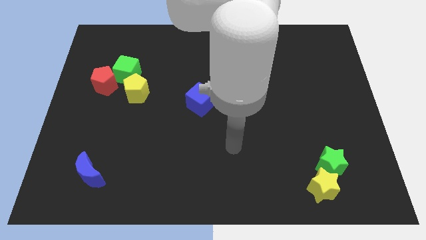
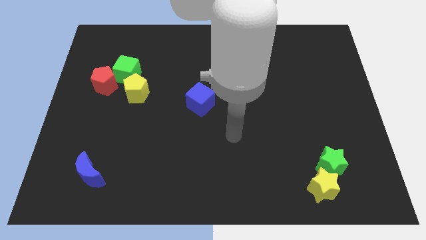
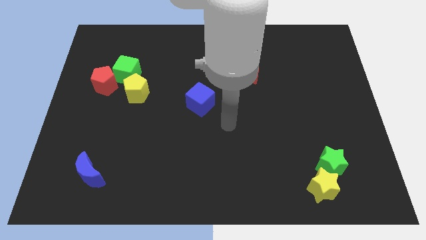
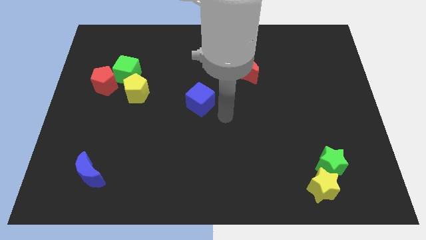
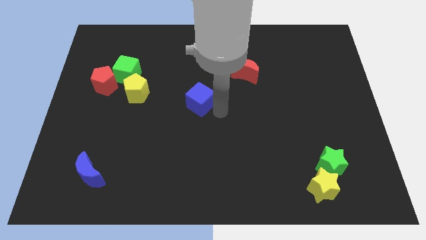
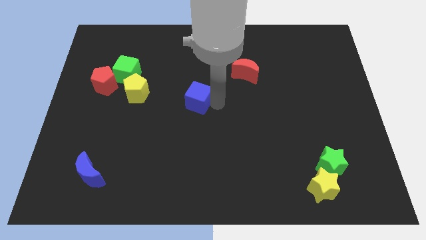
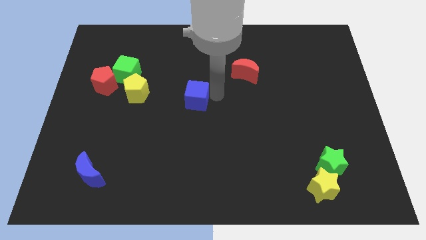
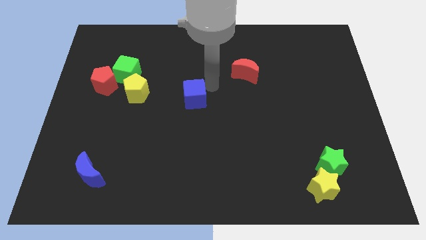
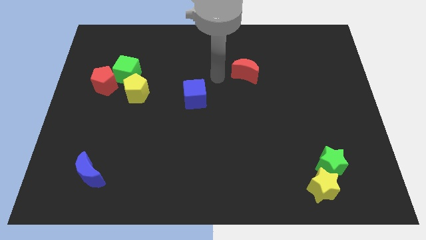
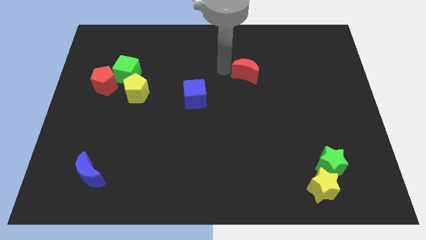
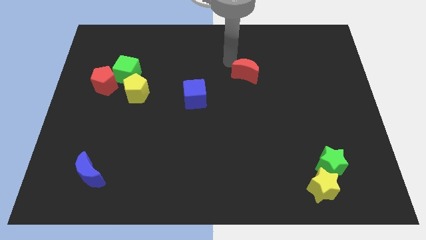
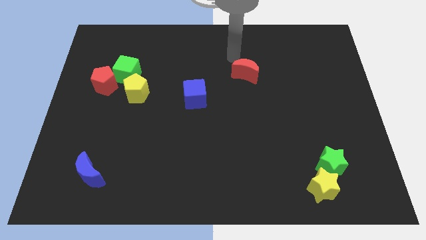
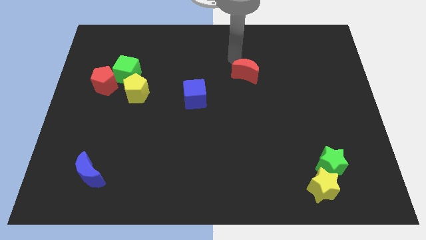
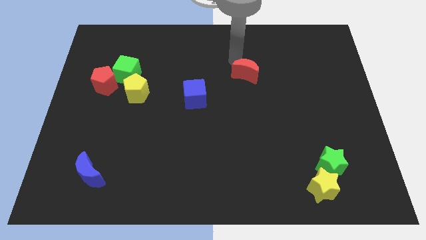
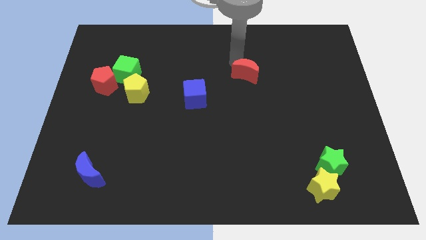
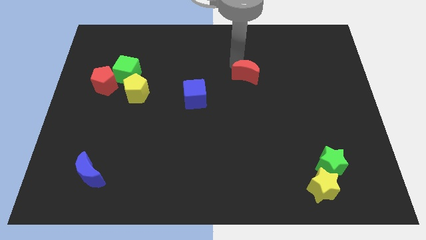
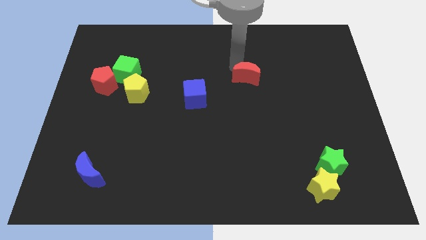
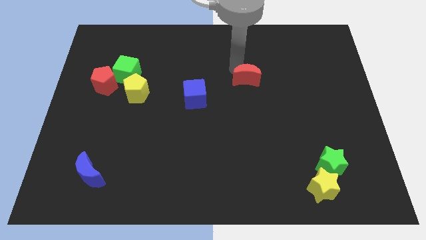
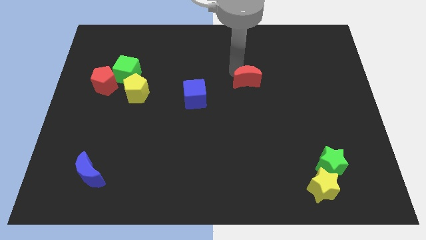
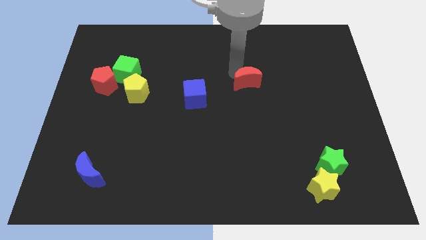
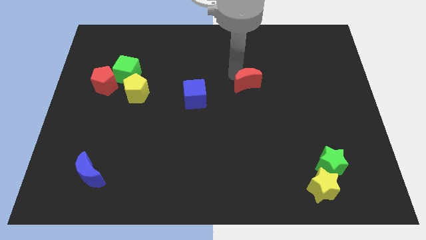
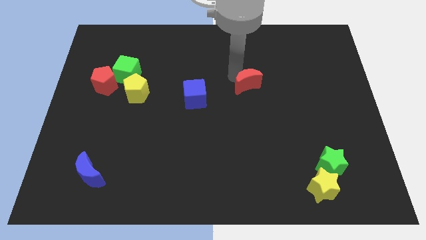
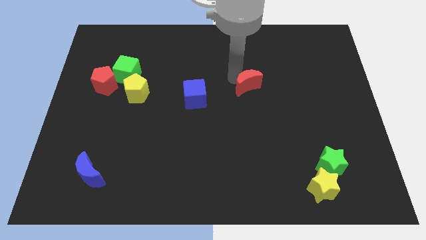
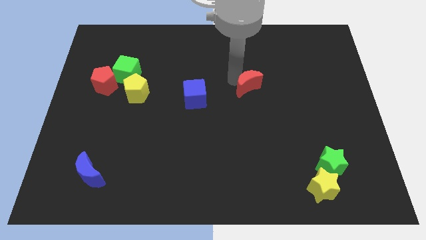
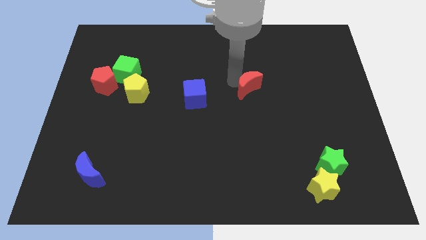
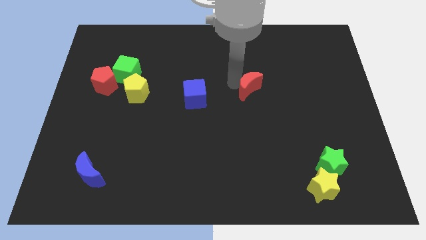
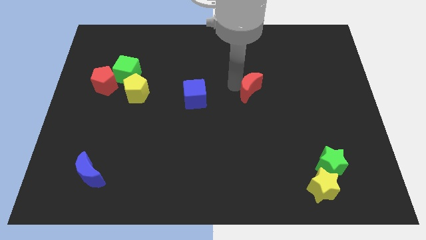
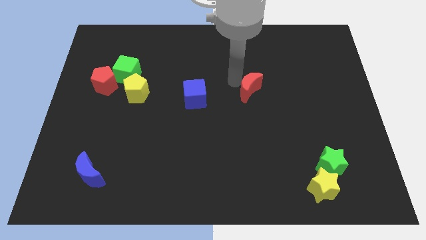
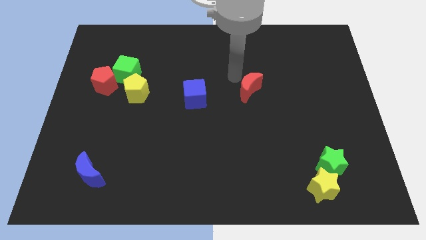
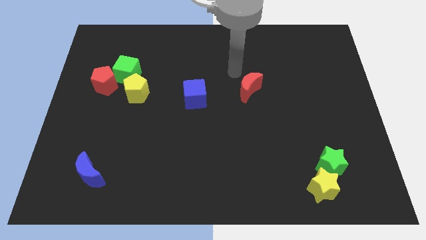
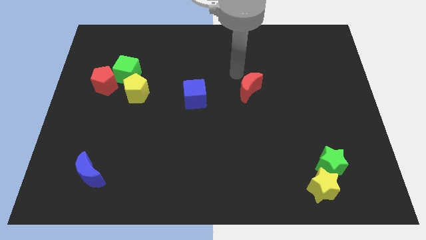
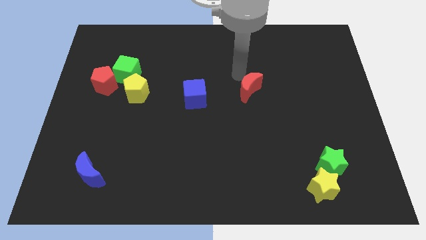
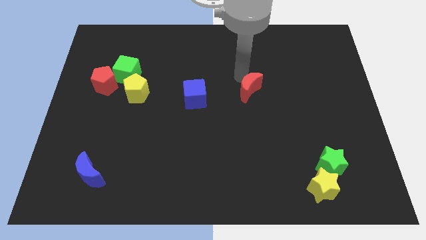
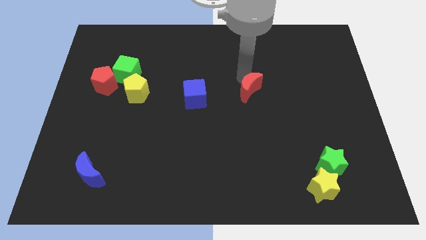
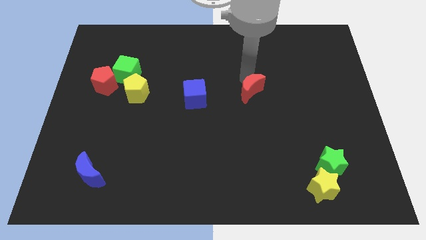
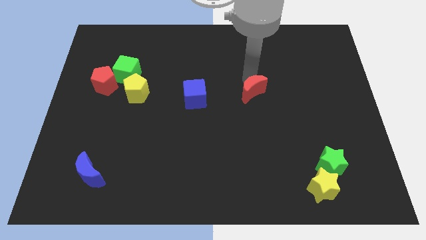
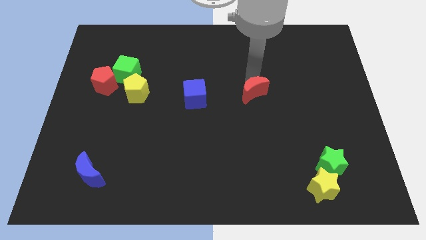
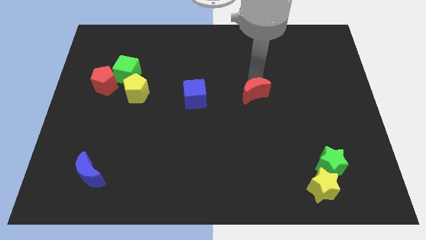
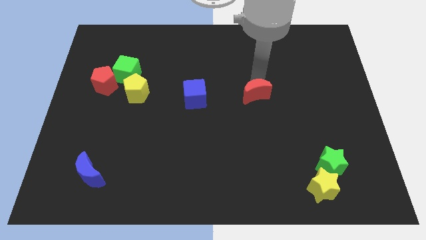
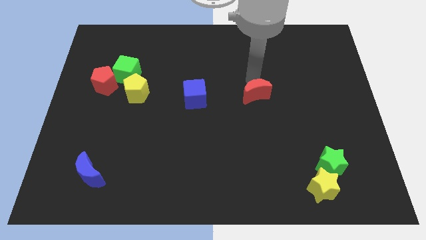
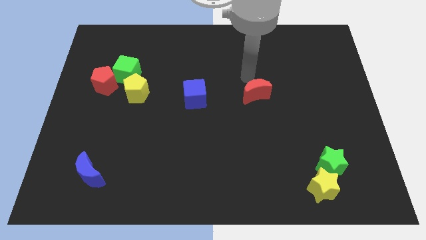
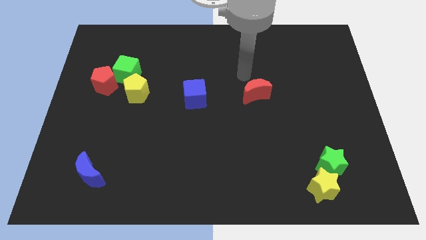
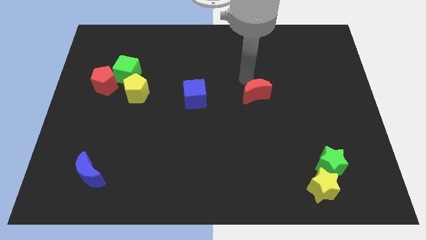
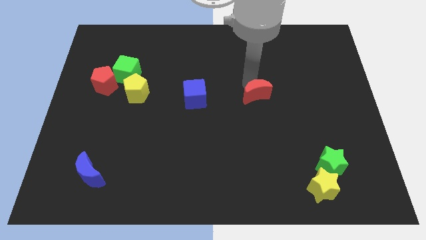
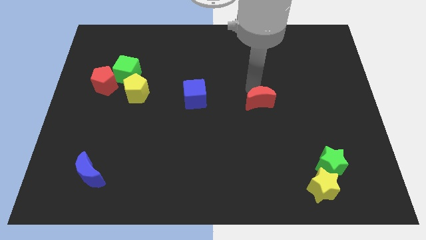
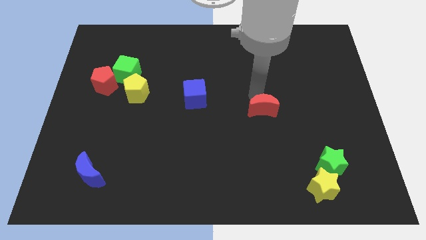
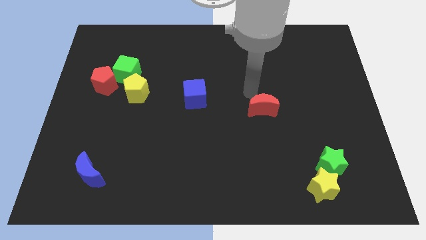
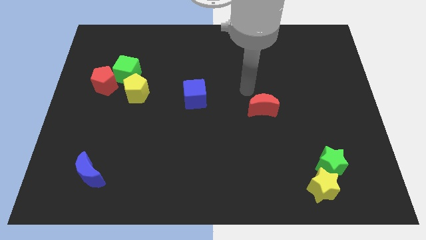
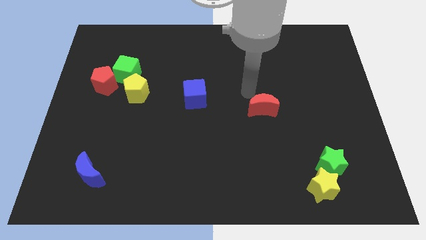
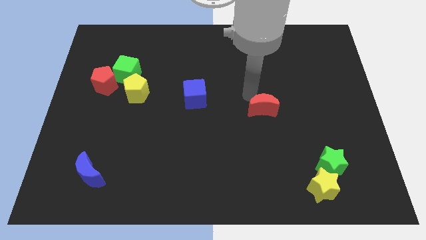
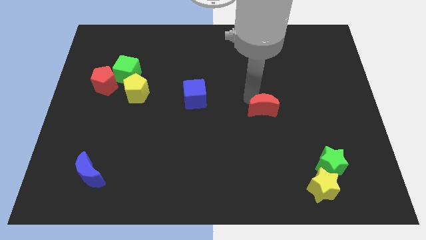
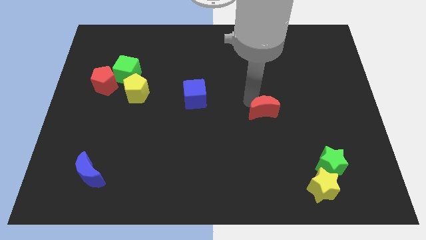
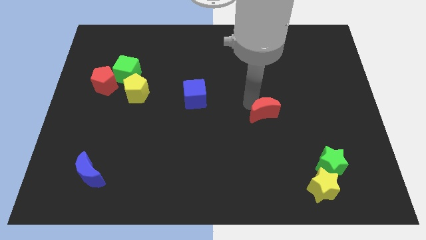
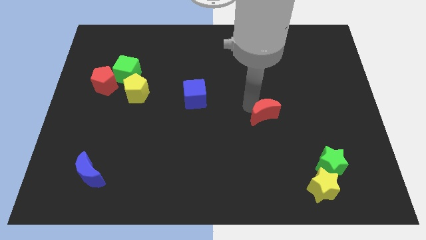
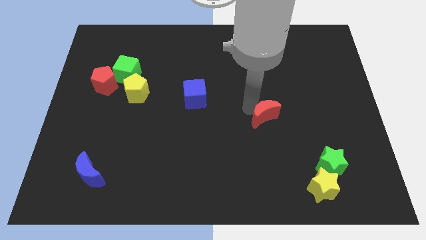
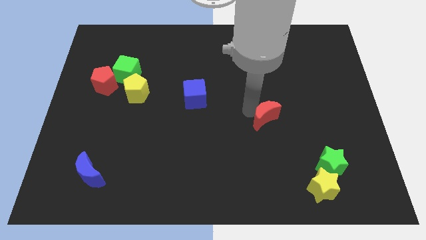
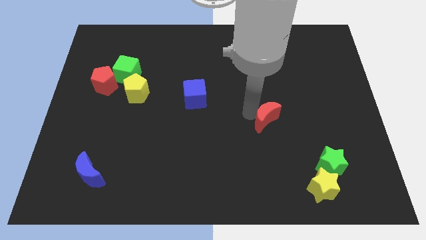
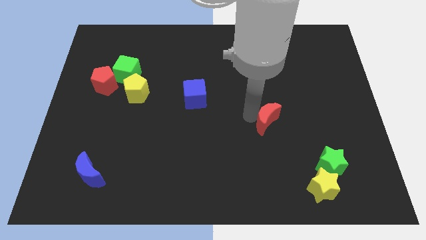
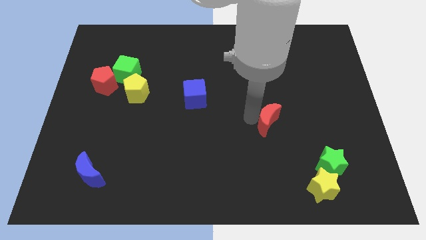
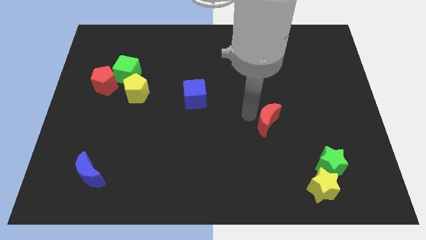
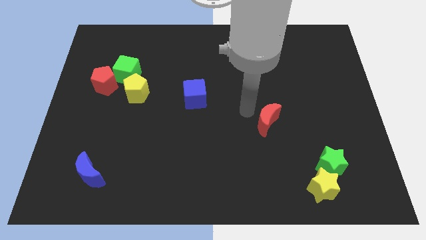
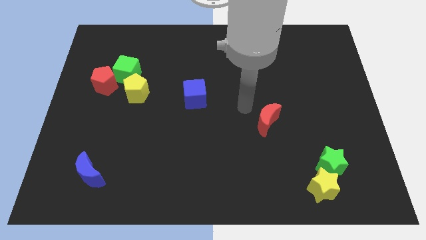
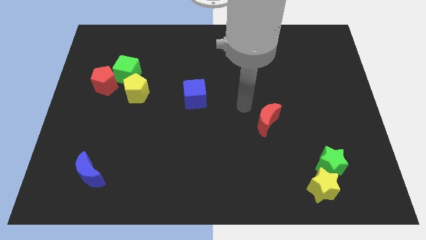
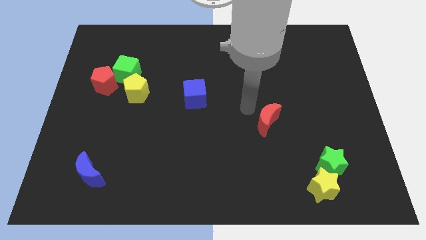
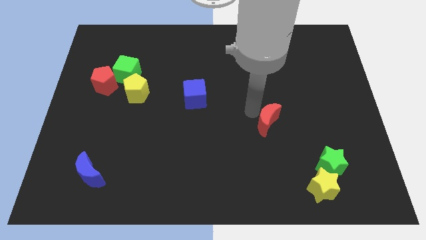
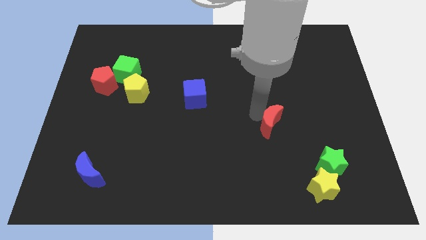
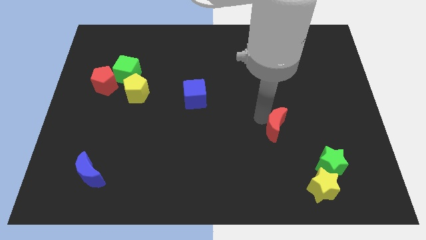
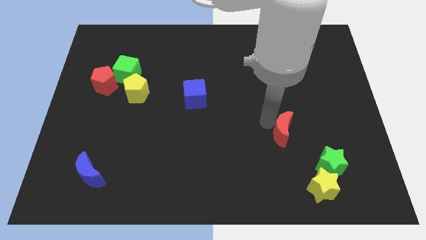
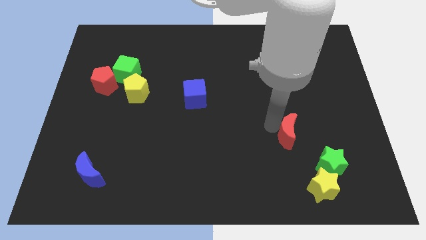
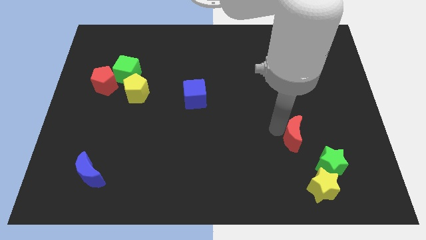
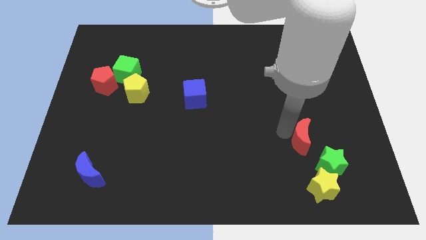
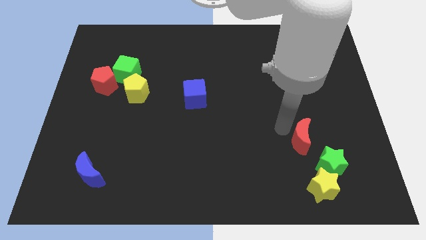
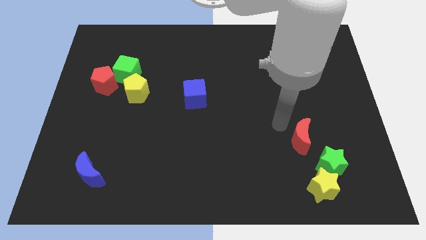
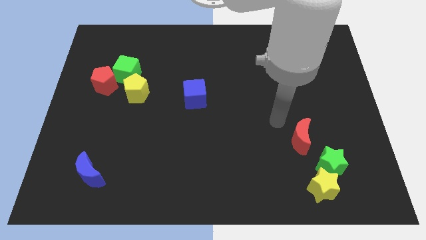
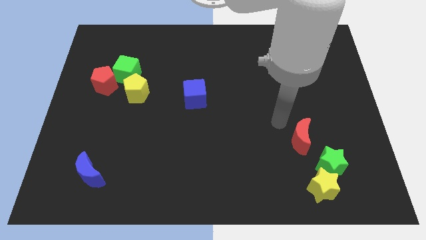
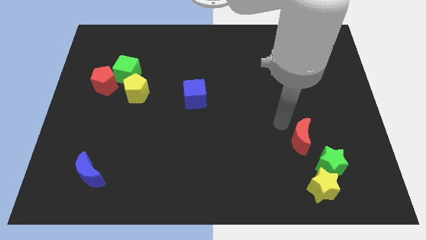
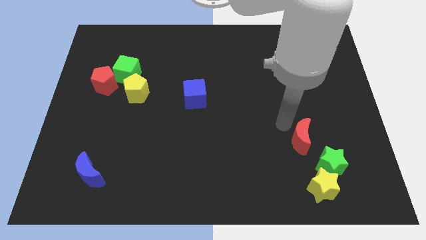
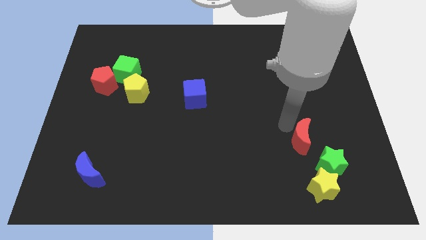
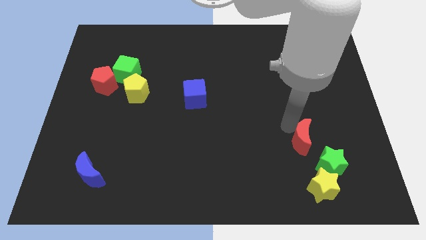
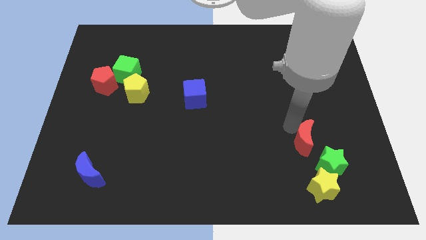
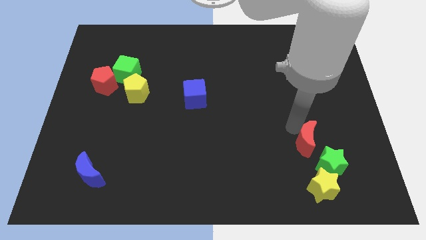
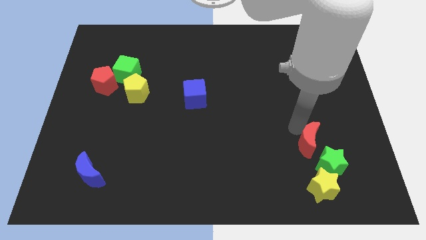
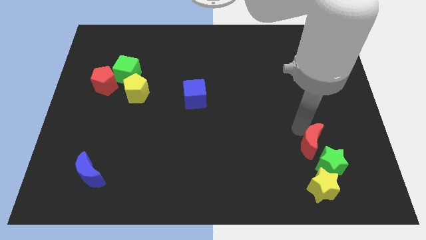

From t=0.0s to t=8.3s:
put the red moon to the green star

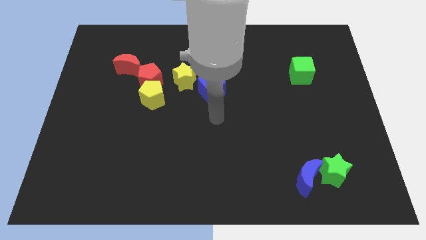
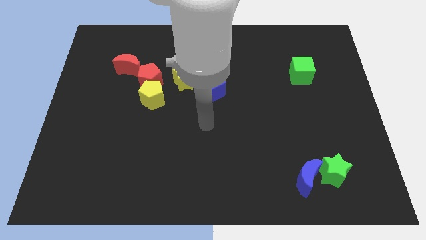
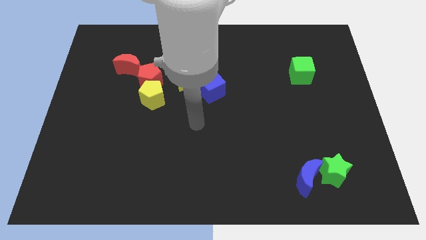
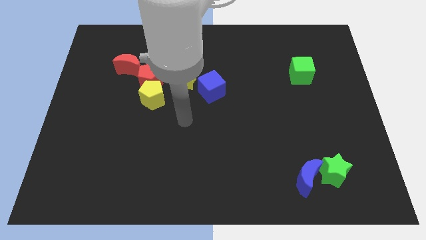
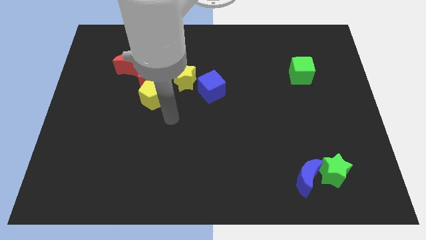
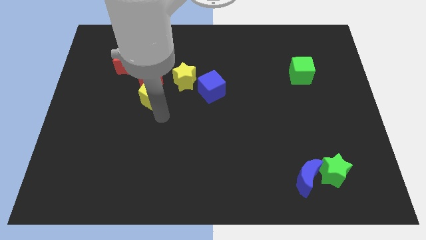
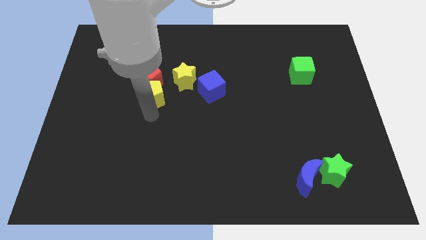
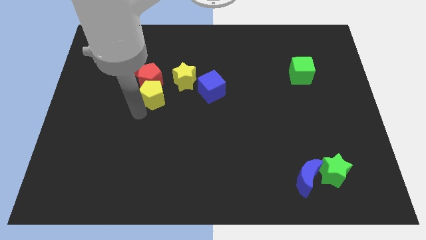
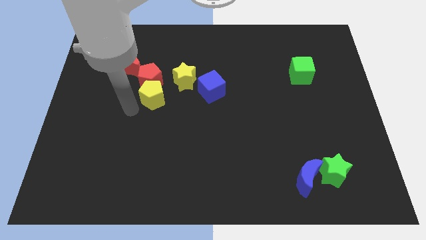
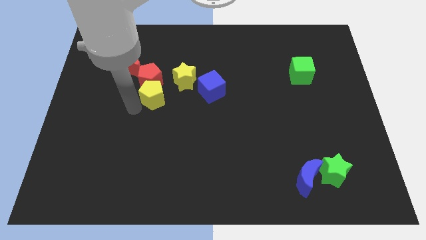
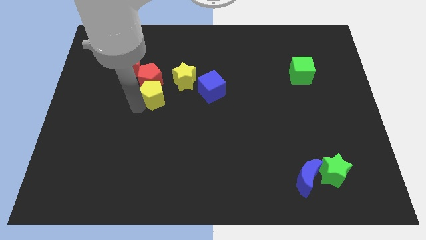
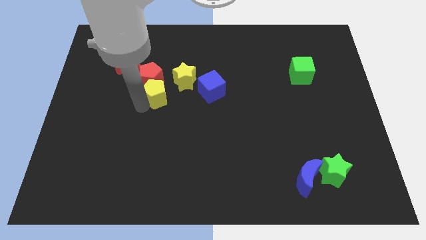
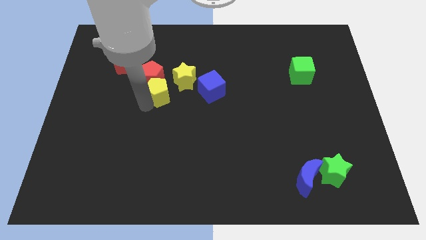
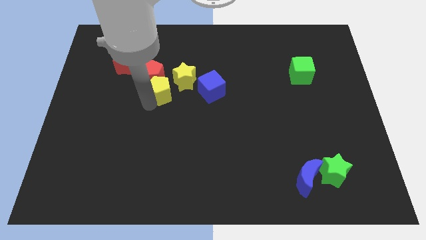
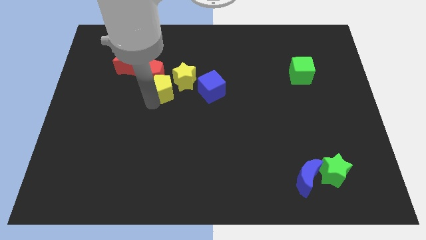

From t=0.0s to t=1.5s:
slide the yellow pentagon to the yellow star
